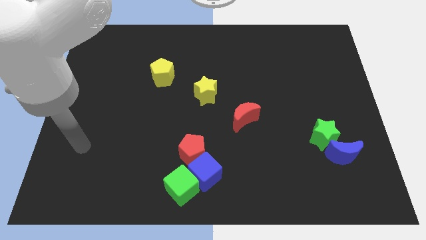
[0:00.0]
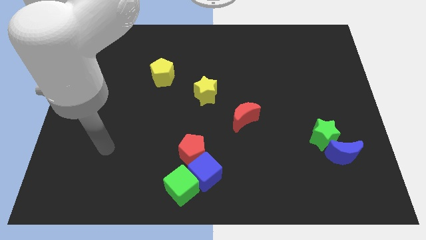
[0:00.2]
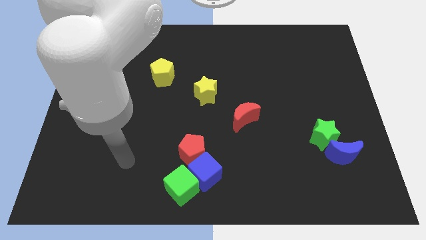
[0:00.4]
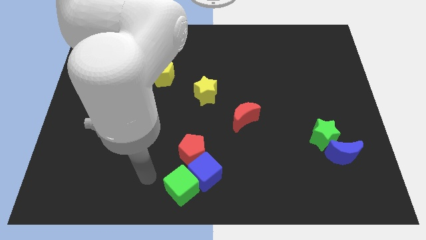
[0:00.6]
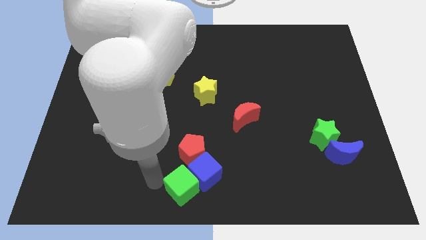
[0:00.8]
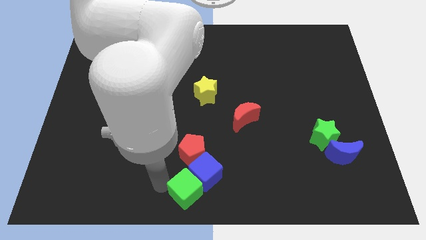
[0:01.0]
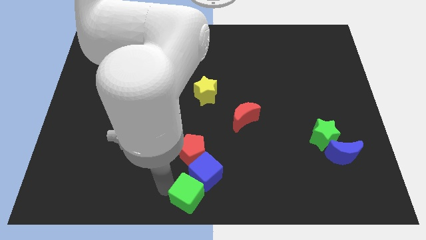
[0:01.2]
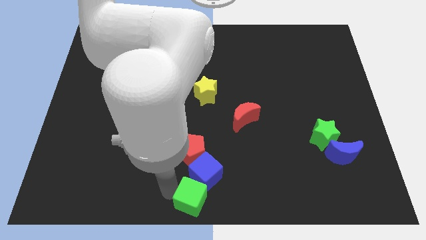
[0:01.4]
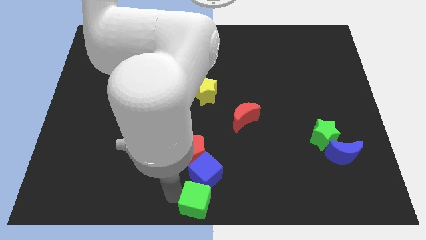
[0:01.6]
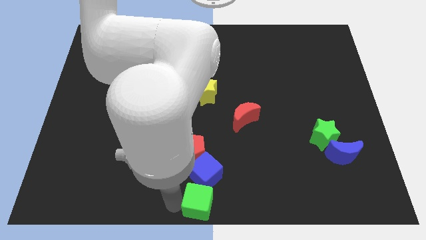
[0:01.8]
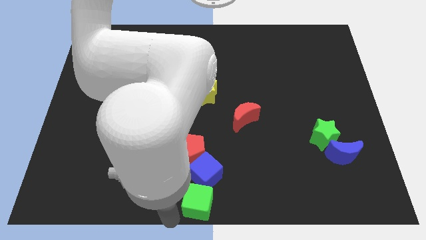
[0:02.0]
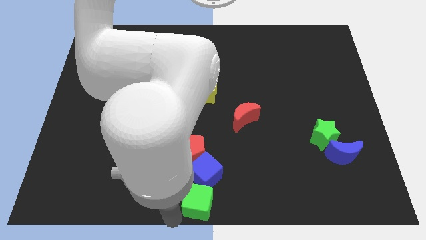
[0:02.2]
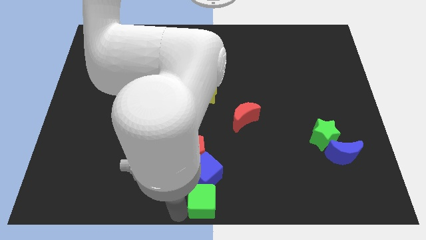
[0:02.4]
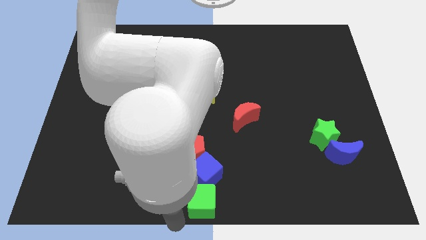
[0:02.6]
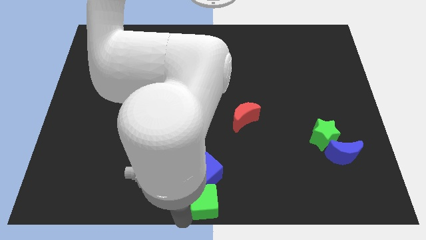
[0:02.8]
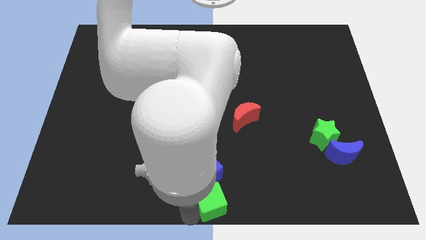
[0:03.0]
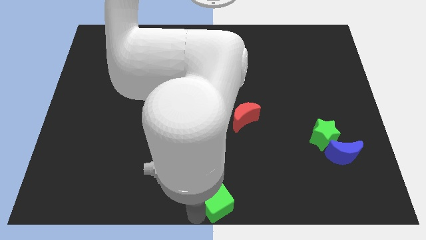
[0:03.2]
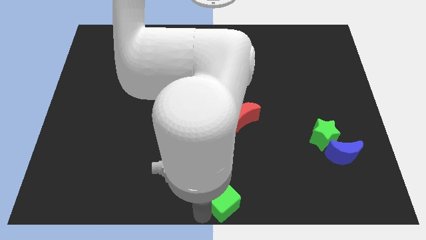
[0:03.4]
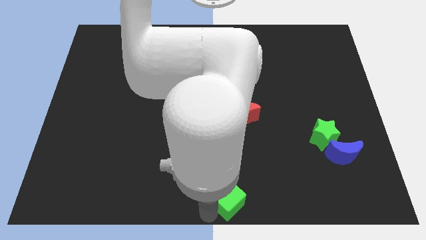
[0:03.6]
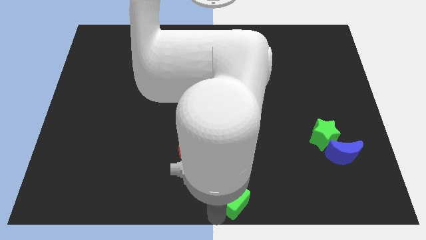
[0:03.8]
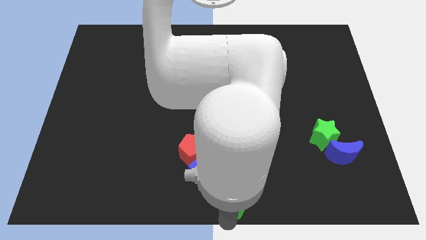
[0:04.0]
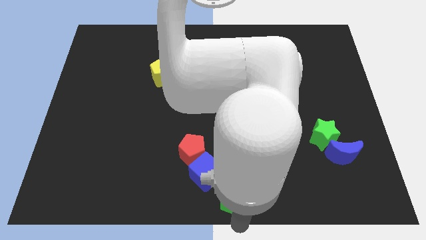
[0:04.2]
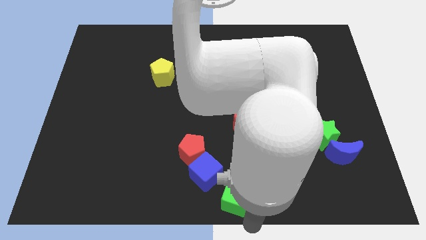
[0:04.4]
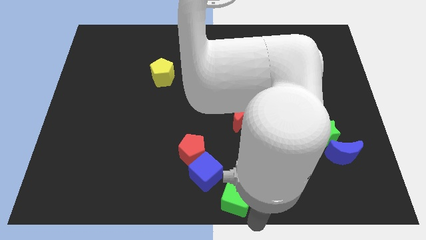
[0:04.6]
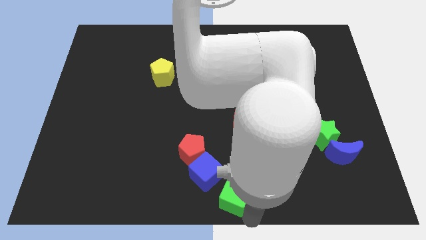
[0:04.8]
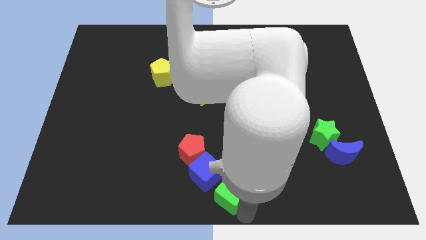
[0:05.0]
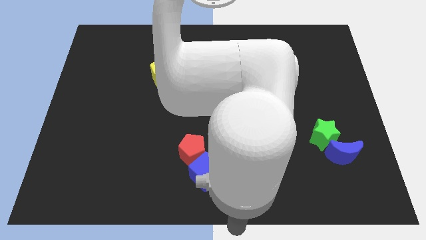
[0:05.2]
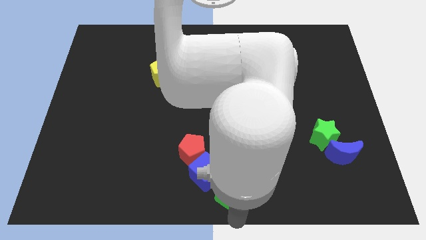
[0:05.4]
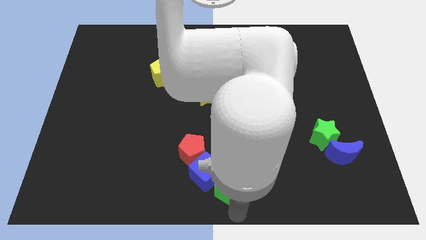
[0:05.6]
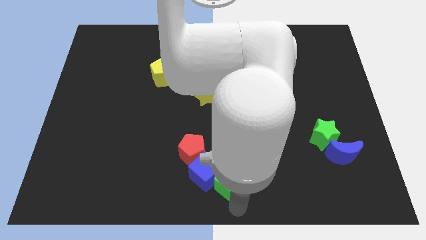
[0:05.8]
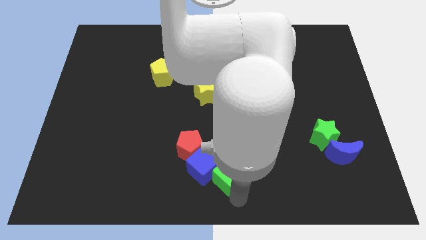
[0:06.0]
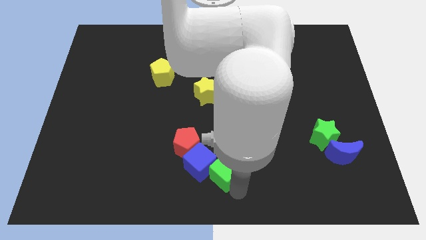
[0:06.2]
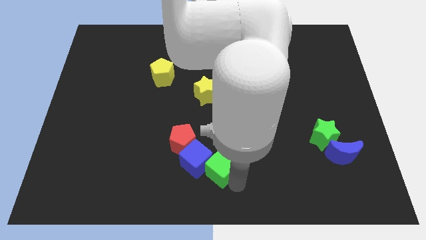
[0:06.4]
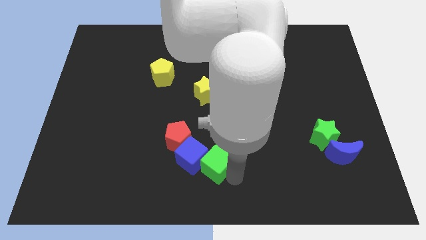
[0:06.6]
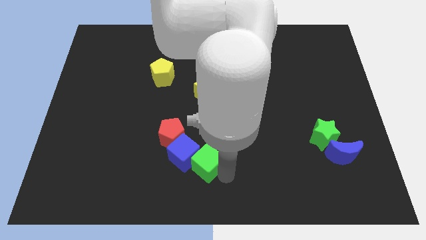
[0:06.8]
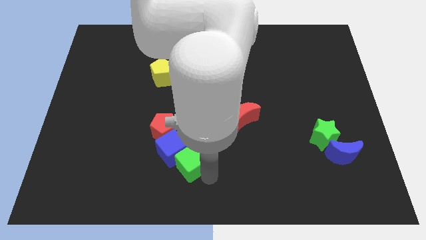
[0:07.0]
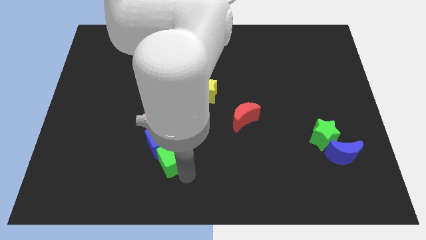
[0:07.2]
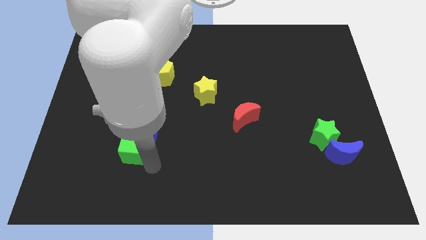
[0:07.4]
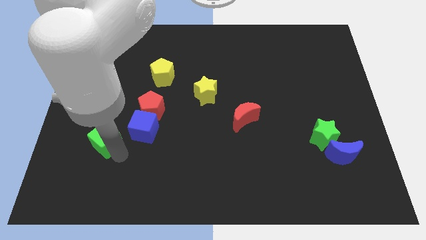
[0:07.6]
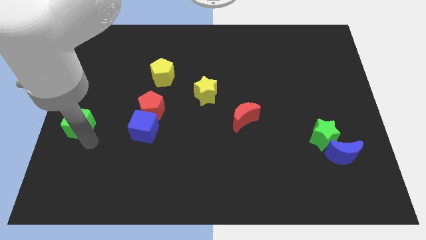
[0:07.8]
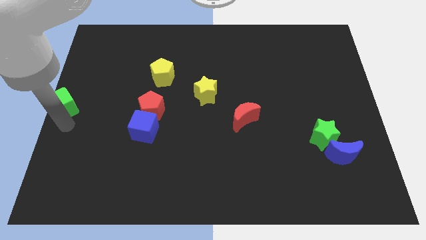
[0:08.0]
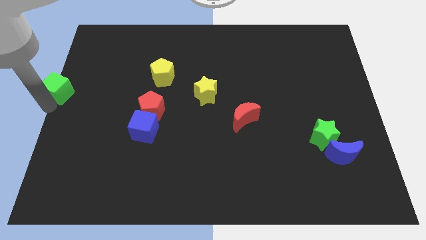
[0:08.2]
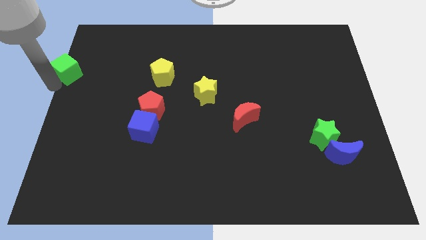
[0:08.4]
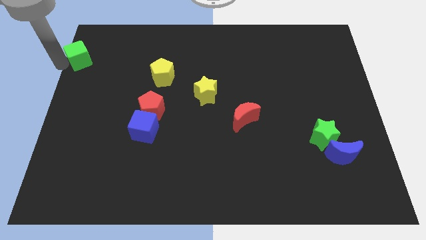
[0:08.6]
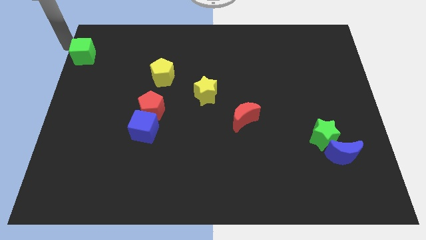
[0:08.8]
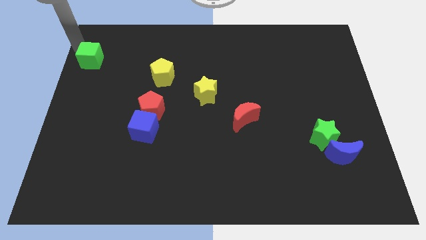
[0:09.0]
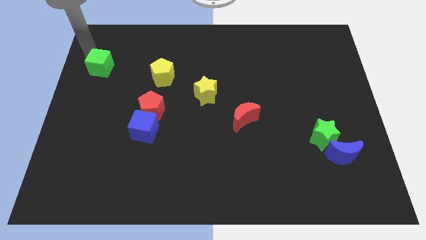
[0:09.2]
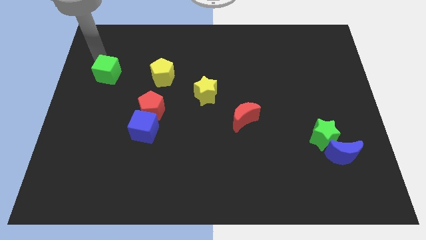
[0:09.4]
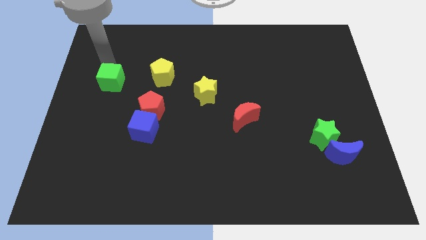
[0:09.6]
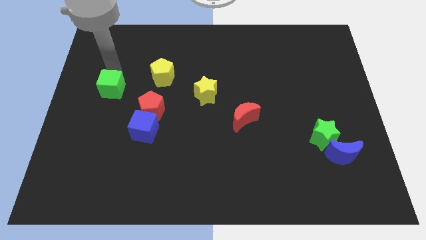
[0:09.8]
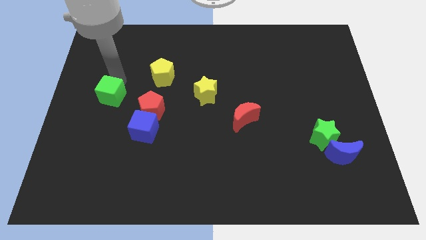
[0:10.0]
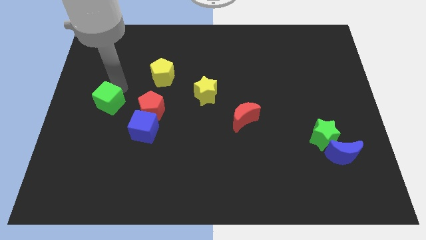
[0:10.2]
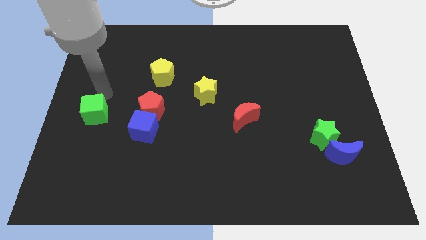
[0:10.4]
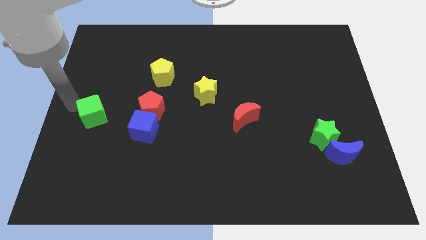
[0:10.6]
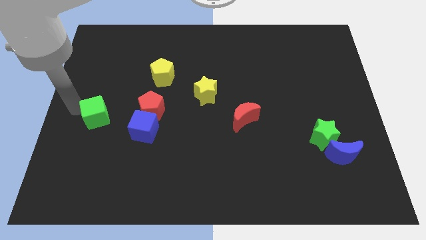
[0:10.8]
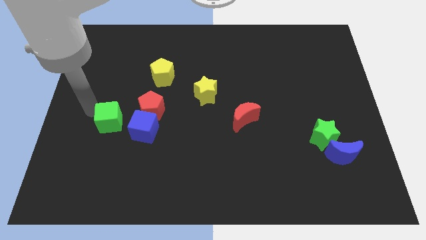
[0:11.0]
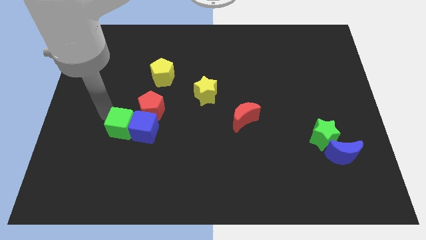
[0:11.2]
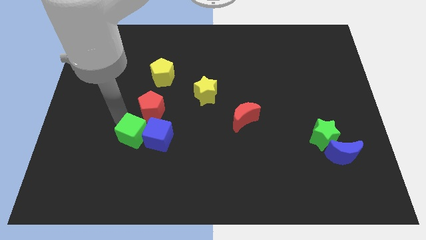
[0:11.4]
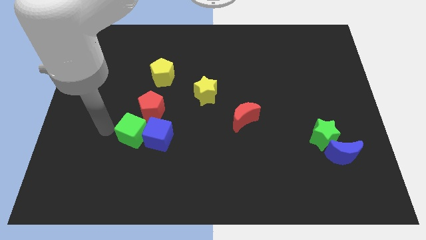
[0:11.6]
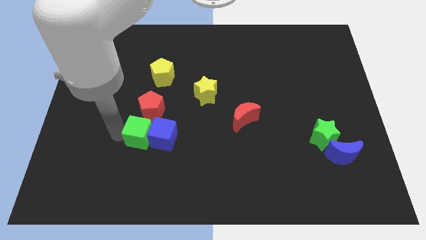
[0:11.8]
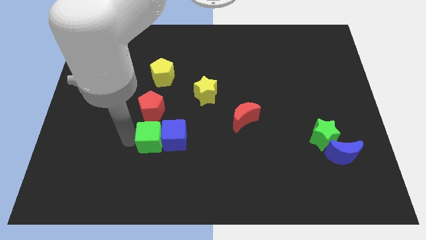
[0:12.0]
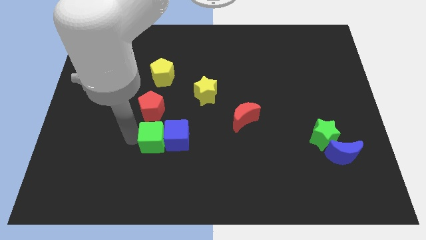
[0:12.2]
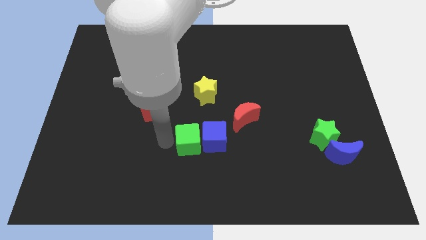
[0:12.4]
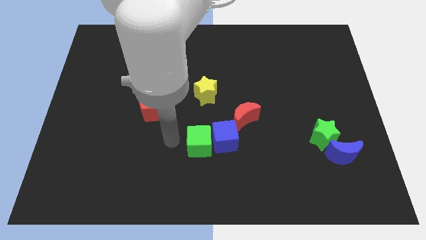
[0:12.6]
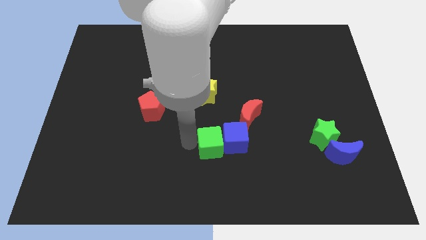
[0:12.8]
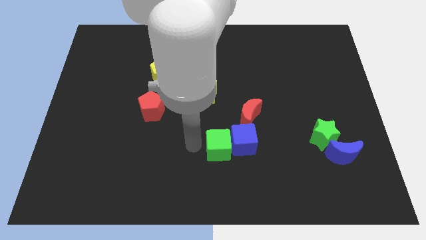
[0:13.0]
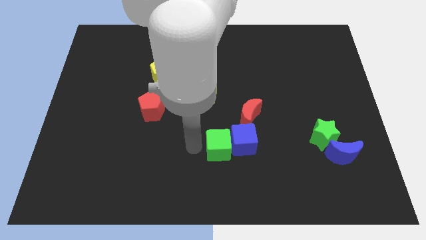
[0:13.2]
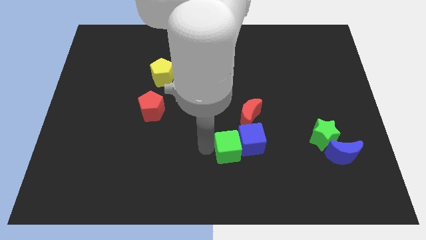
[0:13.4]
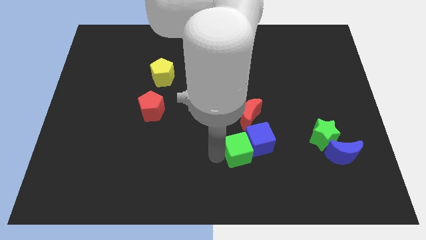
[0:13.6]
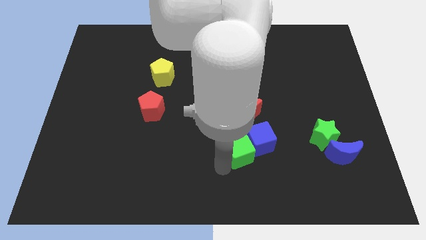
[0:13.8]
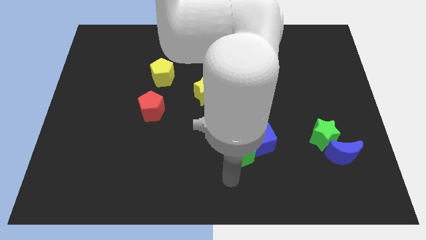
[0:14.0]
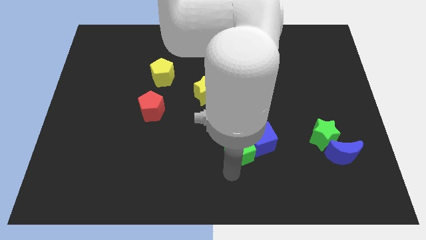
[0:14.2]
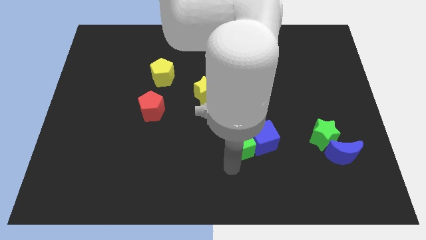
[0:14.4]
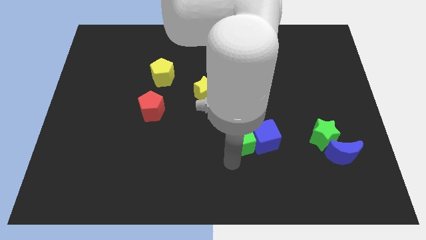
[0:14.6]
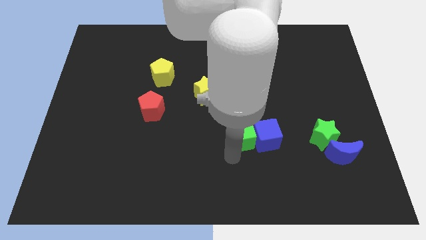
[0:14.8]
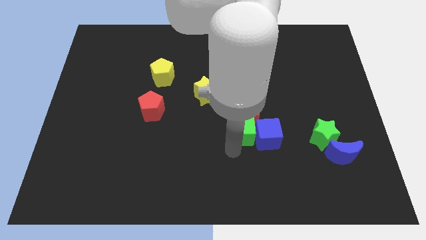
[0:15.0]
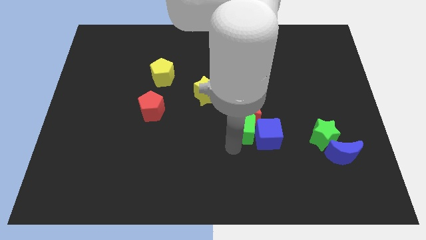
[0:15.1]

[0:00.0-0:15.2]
move the green cube next to the red moon
